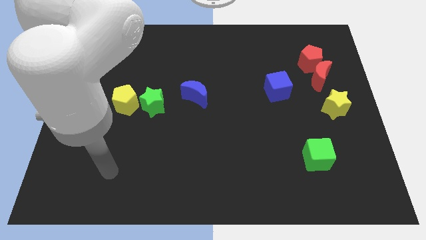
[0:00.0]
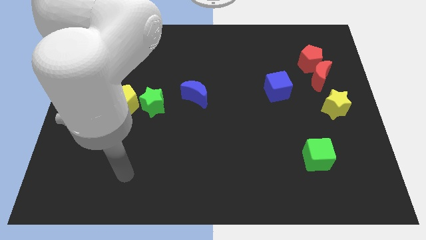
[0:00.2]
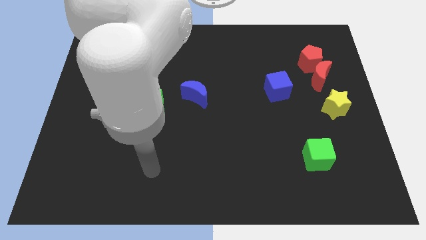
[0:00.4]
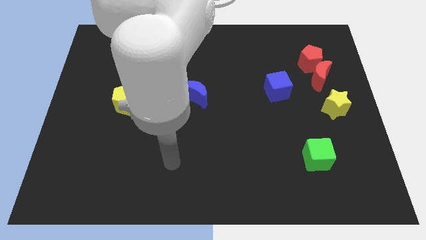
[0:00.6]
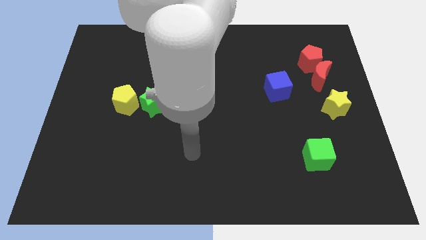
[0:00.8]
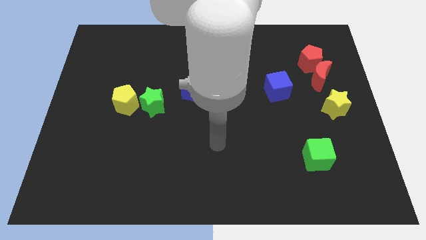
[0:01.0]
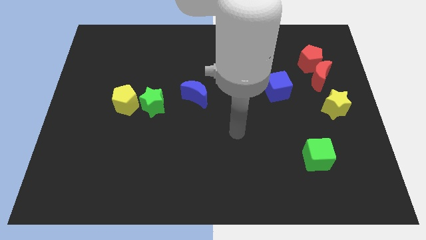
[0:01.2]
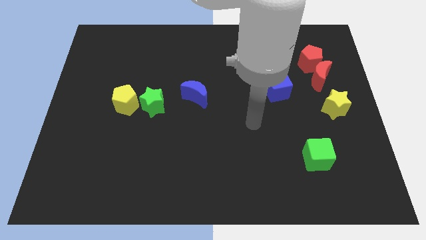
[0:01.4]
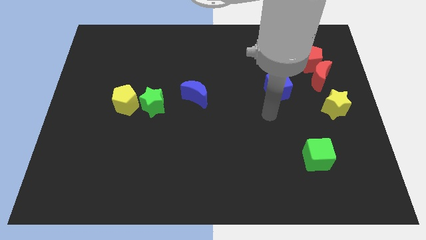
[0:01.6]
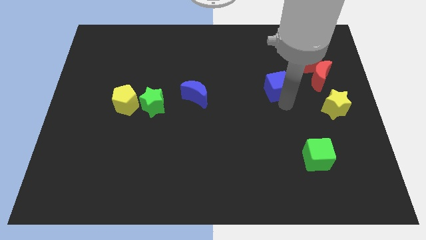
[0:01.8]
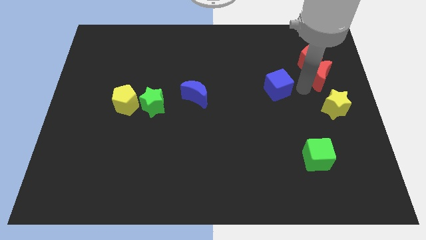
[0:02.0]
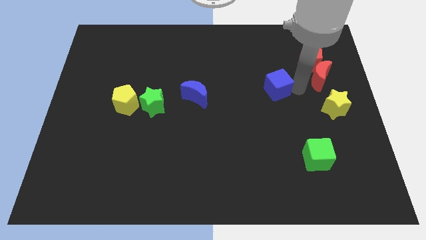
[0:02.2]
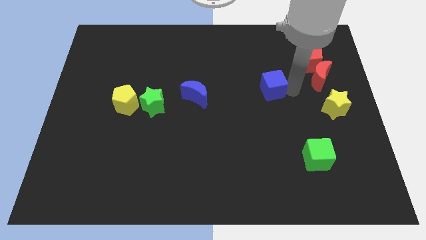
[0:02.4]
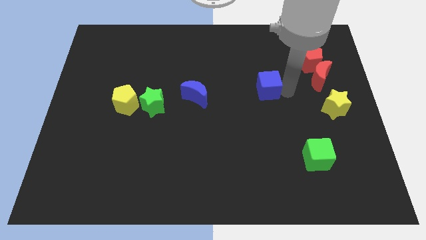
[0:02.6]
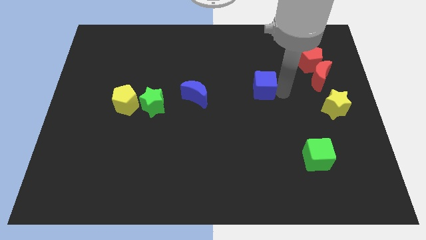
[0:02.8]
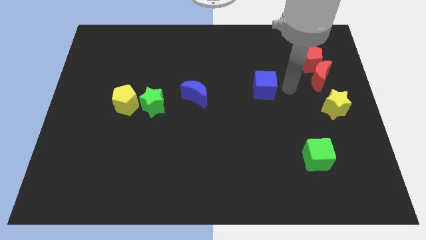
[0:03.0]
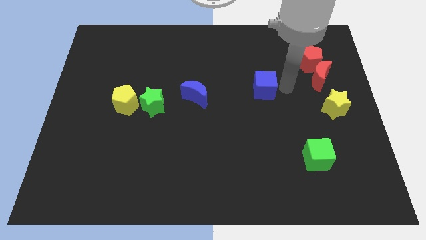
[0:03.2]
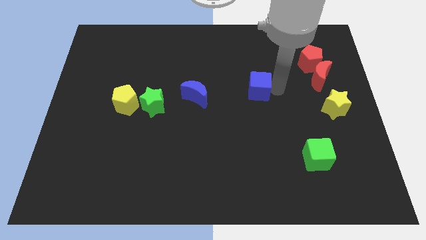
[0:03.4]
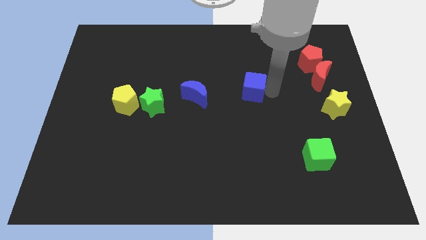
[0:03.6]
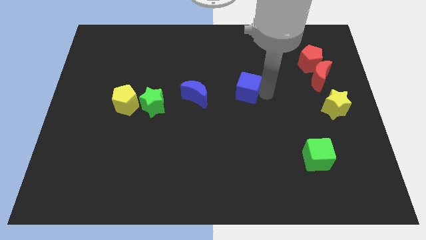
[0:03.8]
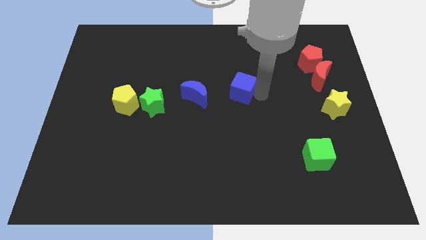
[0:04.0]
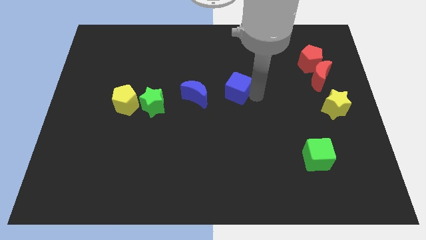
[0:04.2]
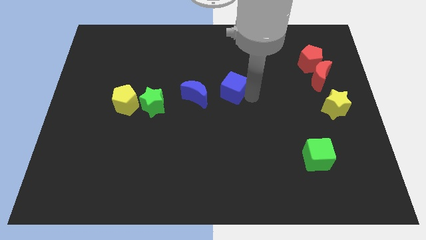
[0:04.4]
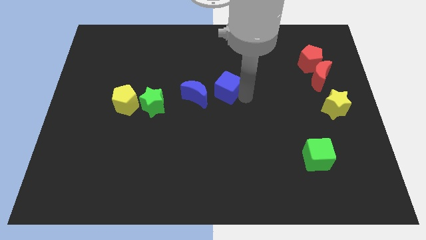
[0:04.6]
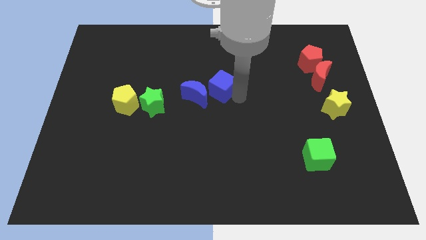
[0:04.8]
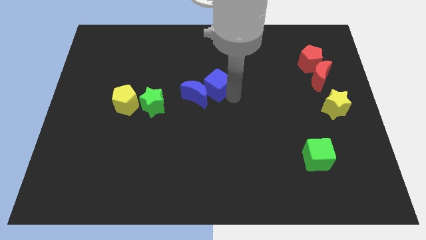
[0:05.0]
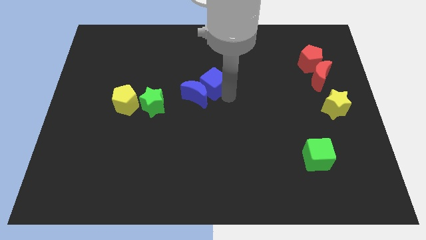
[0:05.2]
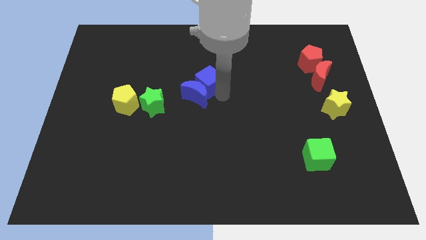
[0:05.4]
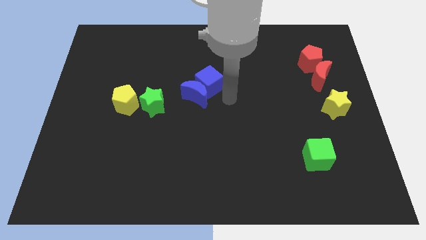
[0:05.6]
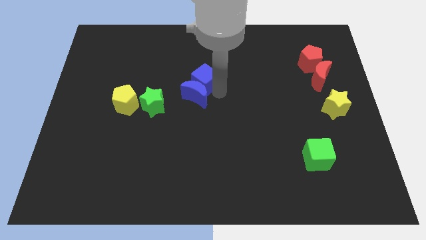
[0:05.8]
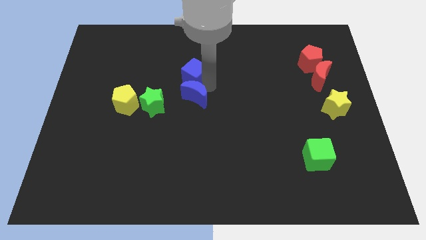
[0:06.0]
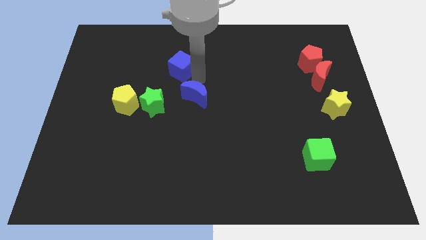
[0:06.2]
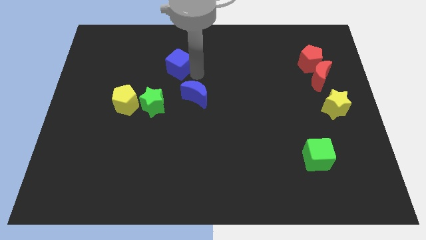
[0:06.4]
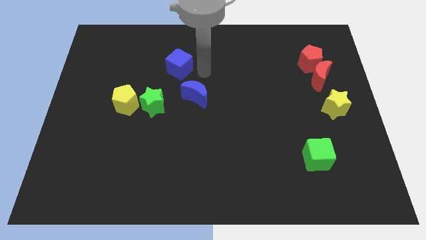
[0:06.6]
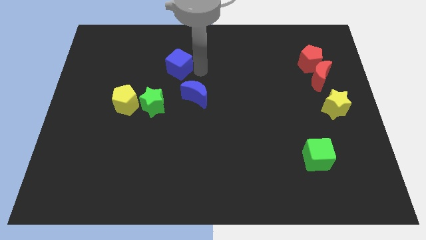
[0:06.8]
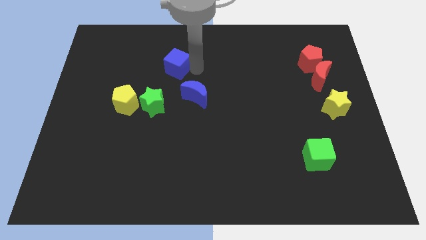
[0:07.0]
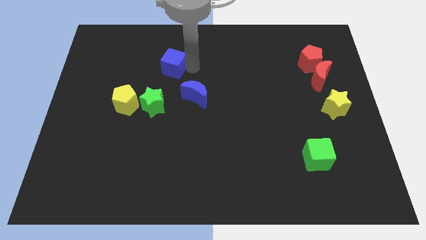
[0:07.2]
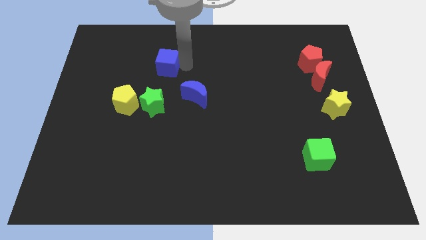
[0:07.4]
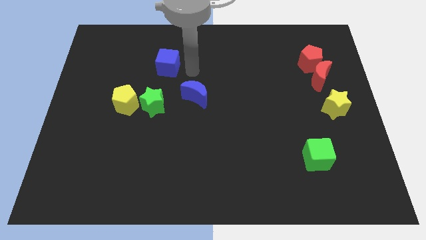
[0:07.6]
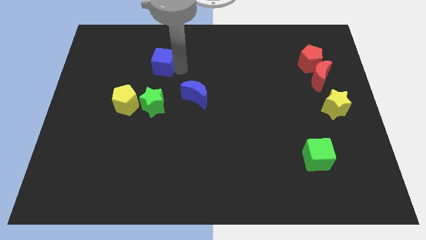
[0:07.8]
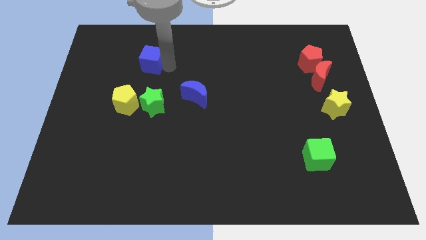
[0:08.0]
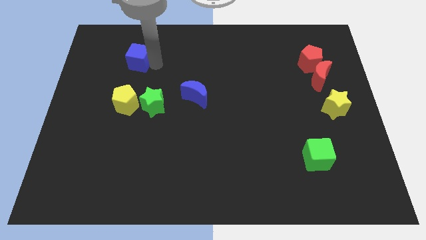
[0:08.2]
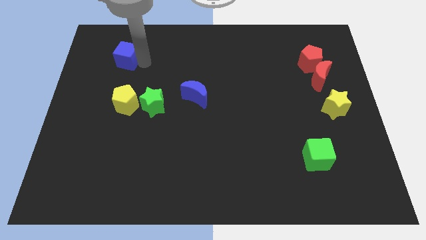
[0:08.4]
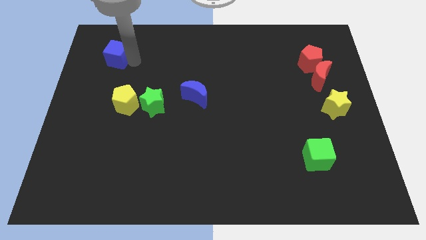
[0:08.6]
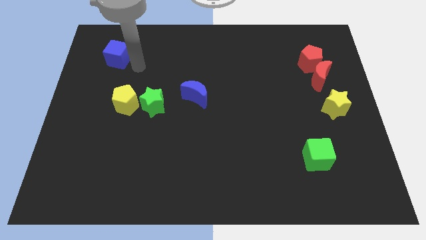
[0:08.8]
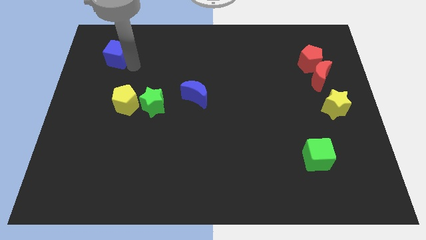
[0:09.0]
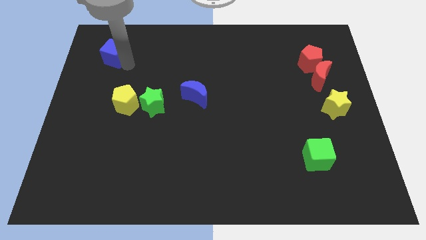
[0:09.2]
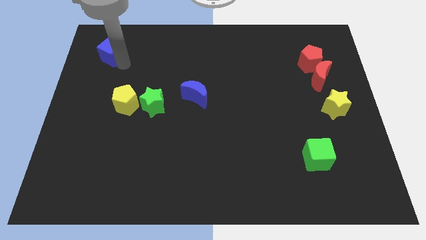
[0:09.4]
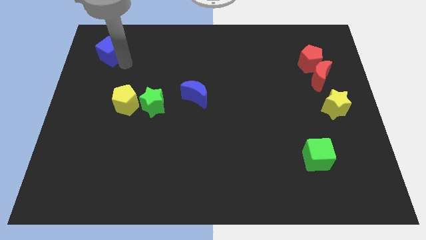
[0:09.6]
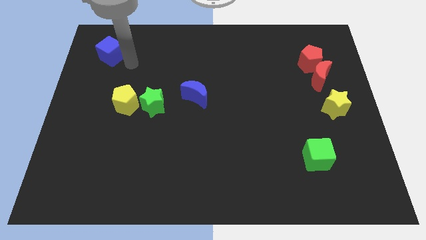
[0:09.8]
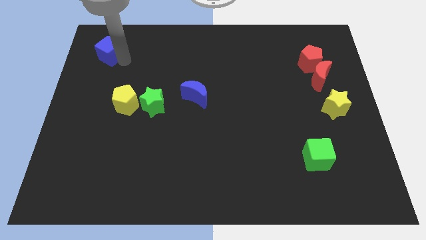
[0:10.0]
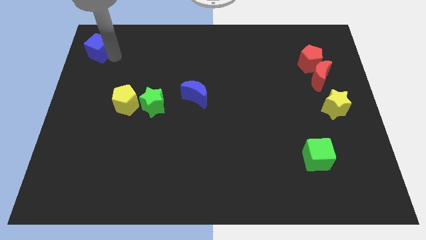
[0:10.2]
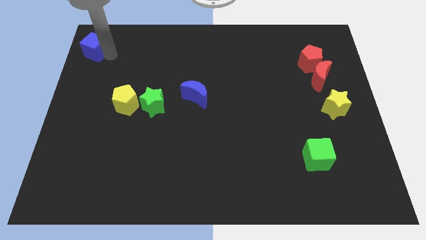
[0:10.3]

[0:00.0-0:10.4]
slide the blue cube to the top left

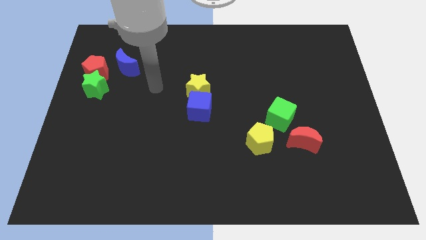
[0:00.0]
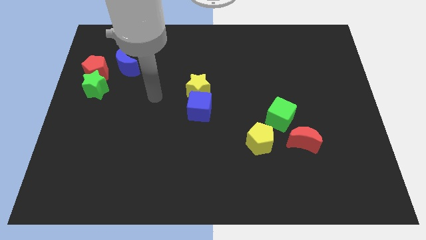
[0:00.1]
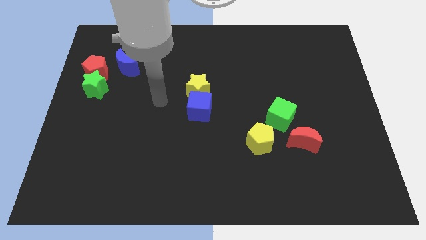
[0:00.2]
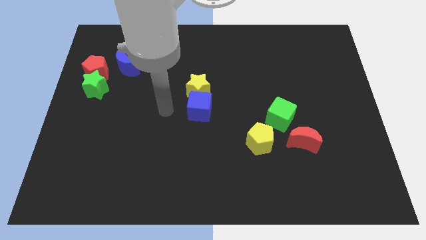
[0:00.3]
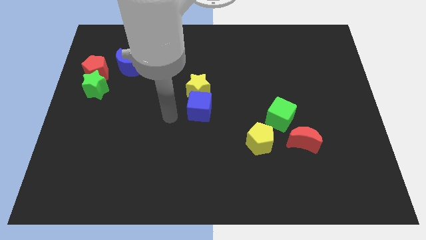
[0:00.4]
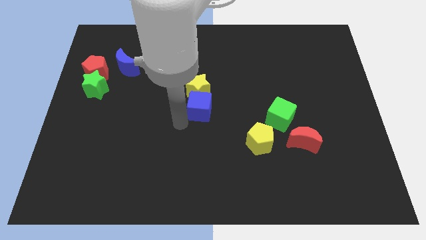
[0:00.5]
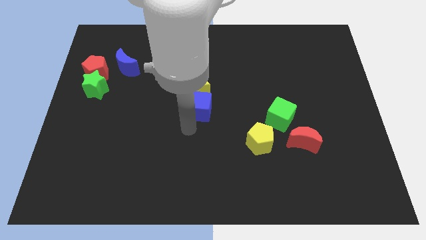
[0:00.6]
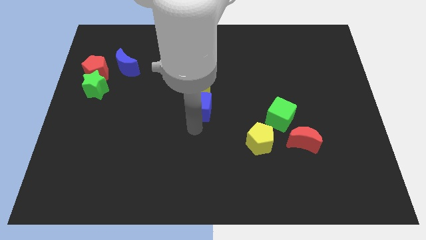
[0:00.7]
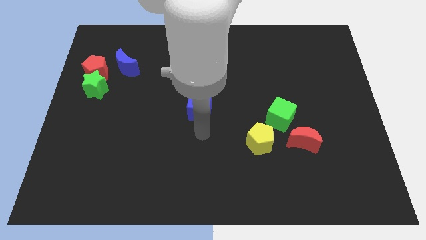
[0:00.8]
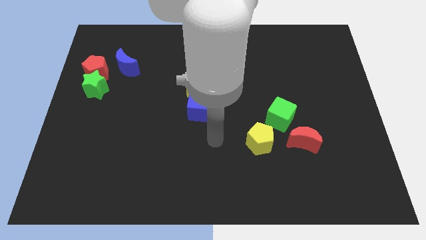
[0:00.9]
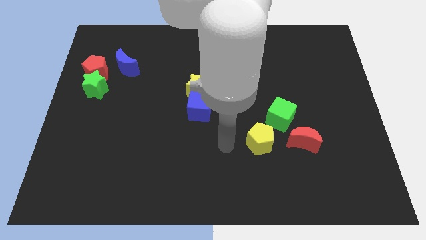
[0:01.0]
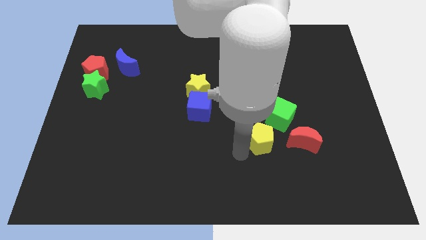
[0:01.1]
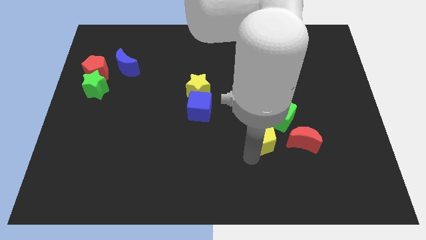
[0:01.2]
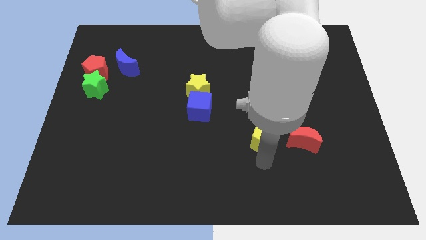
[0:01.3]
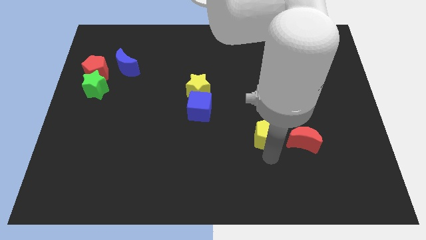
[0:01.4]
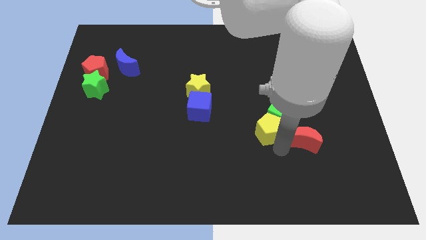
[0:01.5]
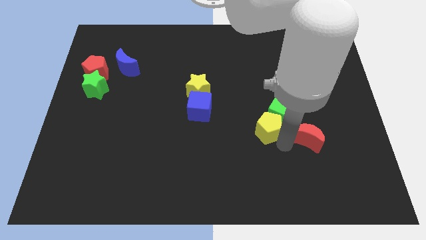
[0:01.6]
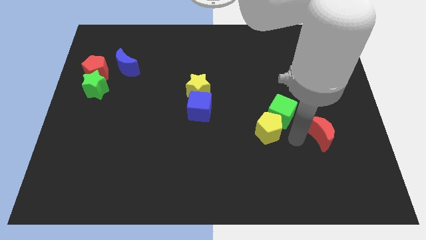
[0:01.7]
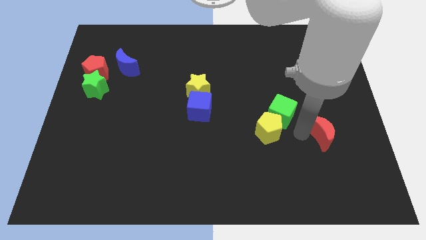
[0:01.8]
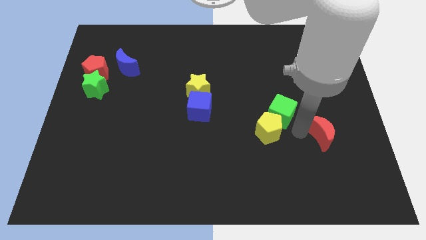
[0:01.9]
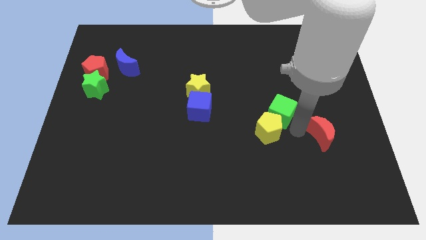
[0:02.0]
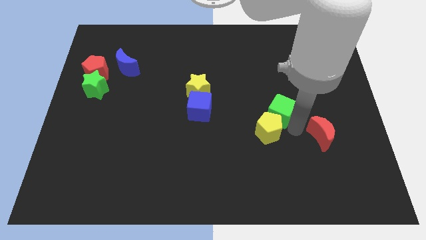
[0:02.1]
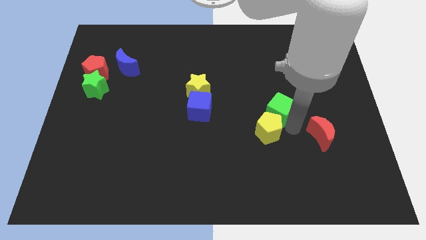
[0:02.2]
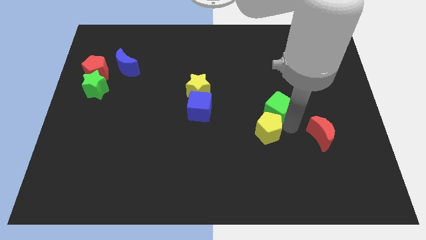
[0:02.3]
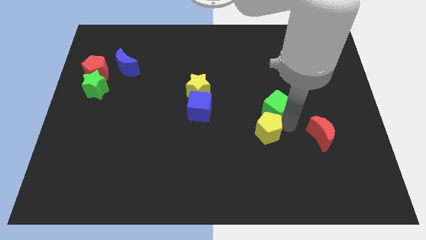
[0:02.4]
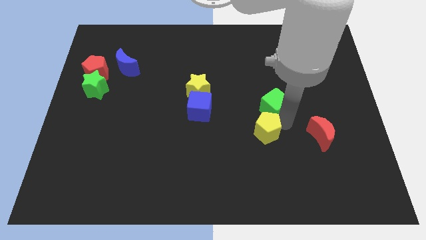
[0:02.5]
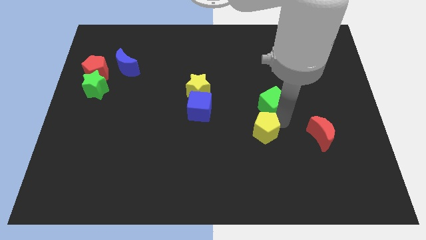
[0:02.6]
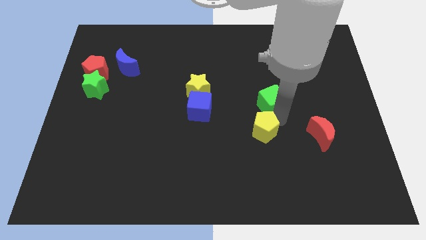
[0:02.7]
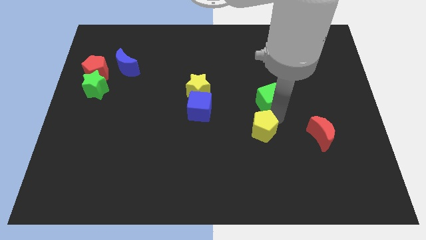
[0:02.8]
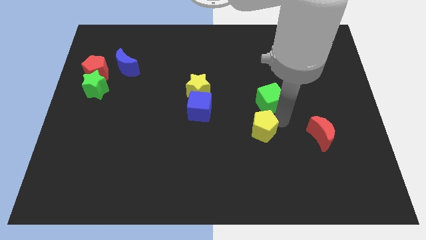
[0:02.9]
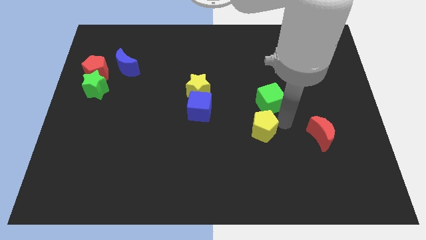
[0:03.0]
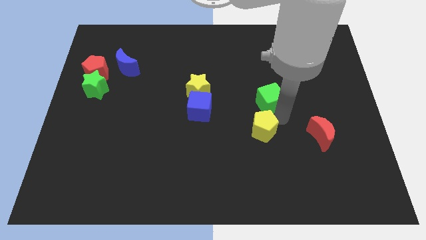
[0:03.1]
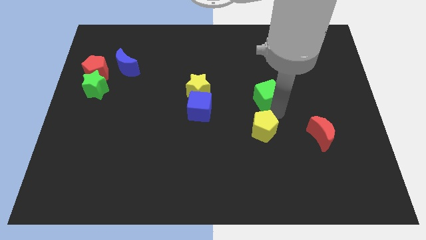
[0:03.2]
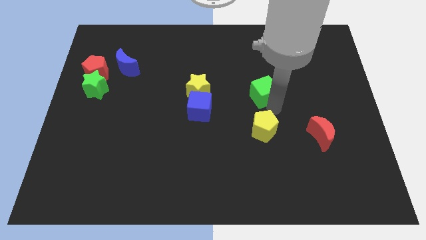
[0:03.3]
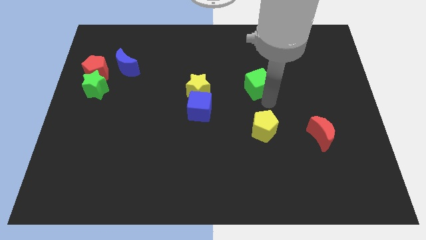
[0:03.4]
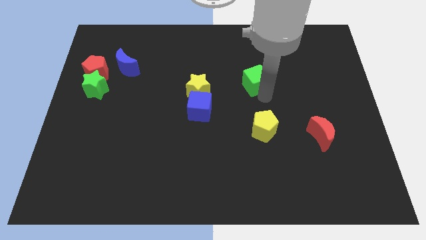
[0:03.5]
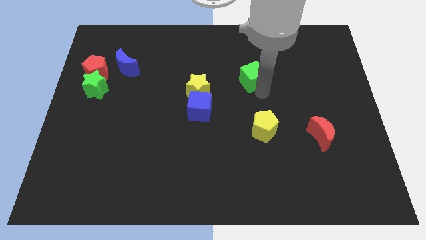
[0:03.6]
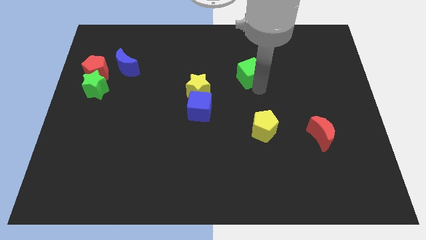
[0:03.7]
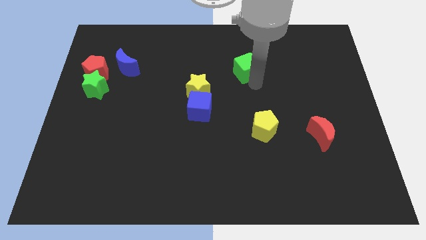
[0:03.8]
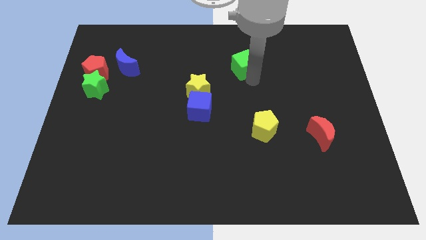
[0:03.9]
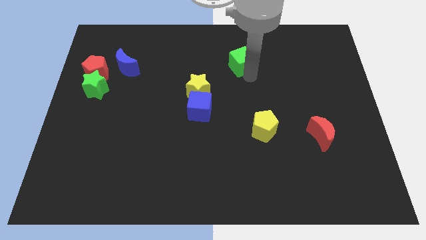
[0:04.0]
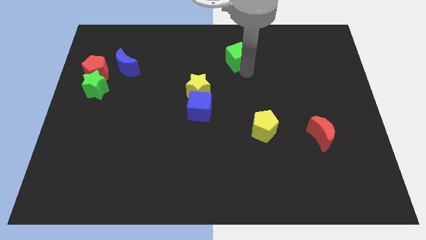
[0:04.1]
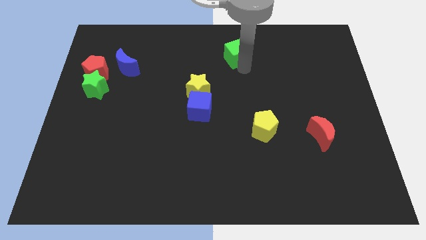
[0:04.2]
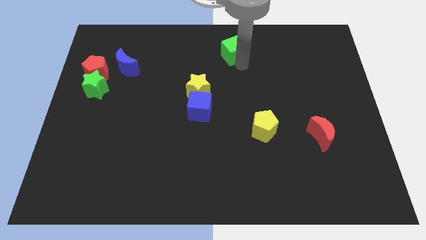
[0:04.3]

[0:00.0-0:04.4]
slide the green cube to the towards your base
